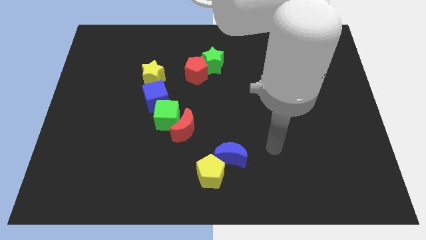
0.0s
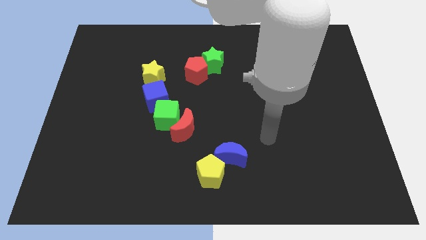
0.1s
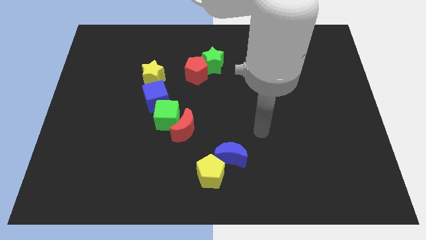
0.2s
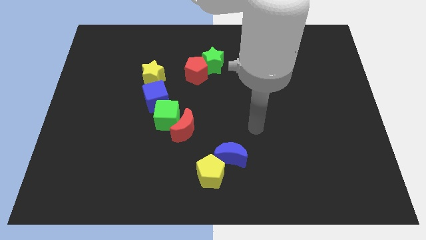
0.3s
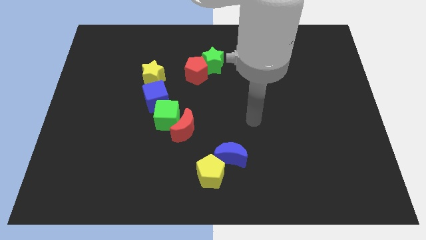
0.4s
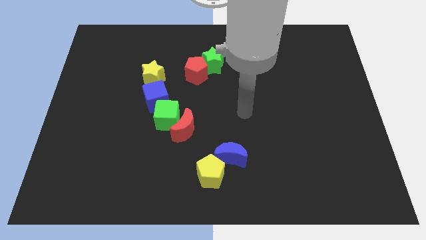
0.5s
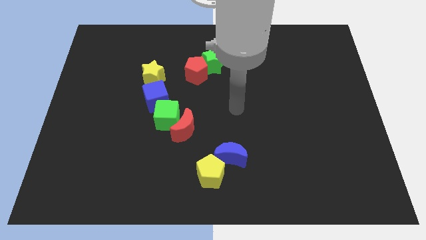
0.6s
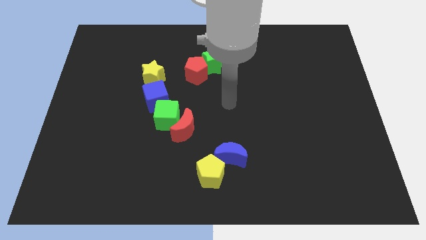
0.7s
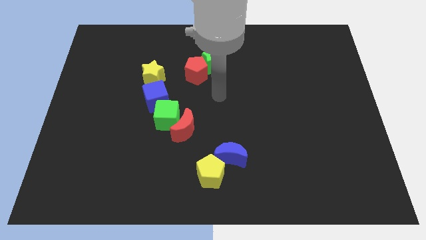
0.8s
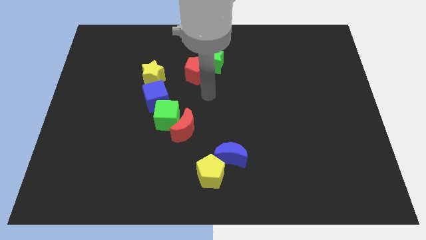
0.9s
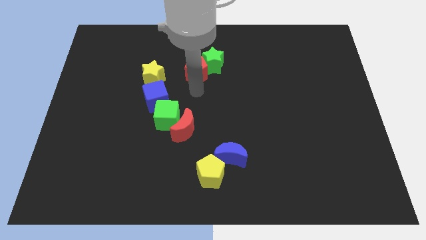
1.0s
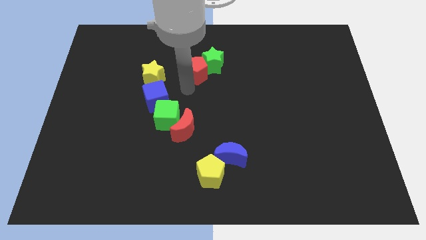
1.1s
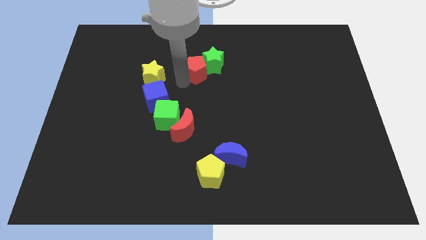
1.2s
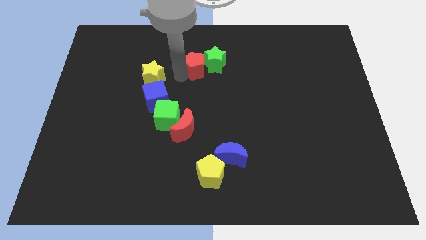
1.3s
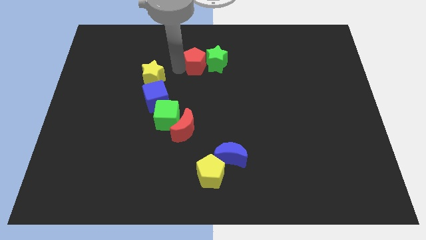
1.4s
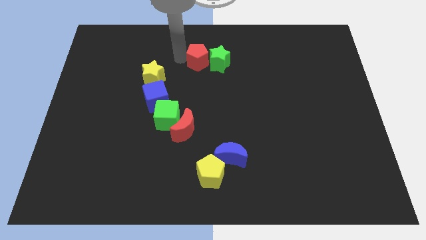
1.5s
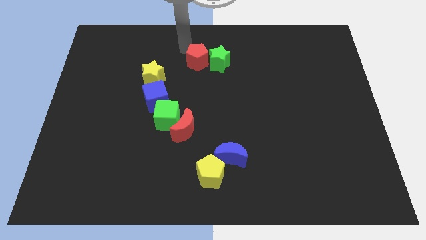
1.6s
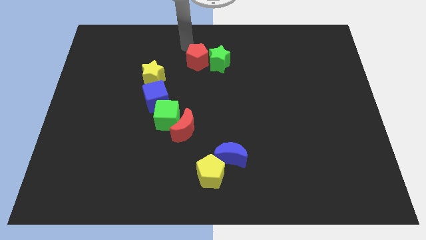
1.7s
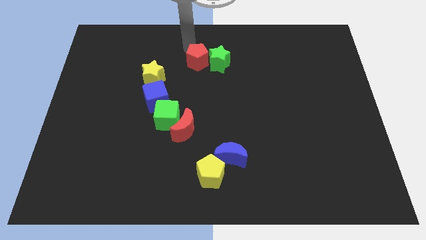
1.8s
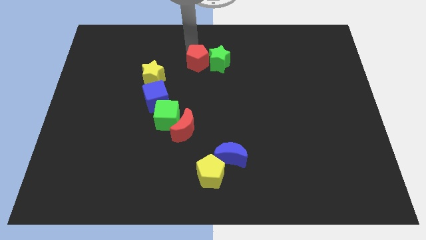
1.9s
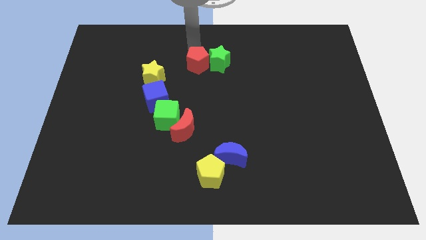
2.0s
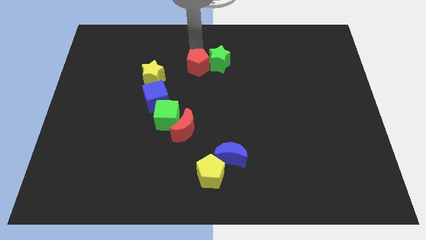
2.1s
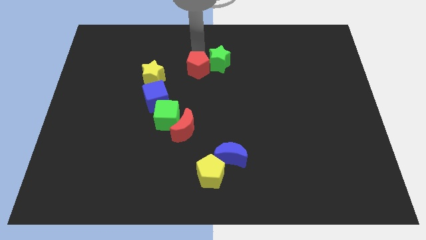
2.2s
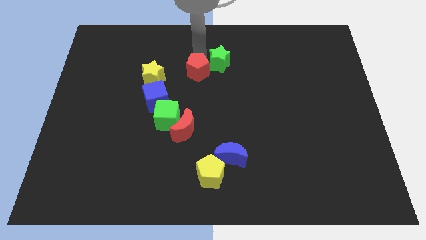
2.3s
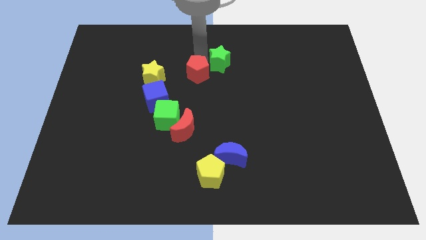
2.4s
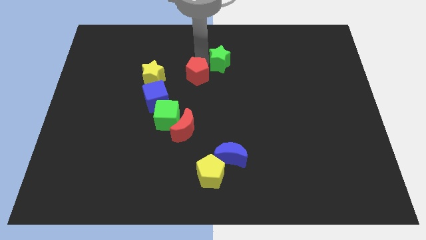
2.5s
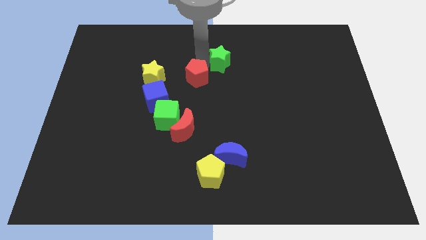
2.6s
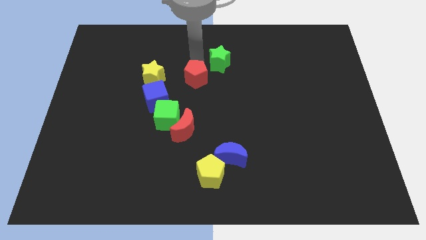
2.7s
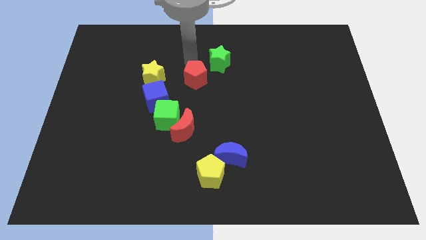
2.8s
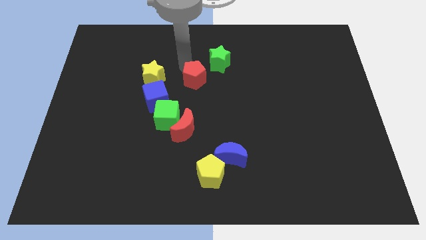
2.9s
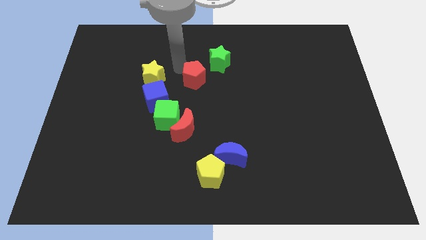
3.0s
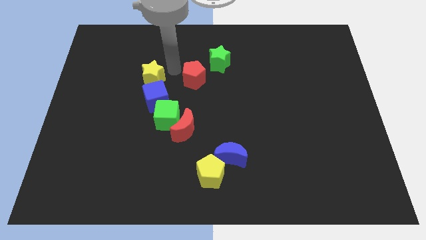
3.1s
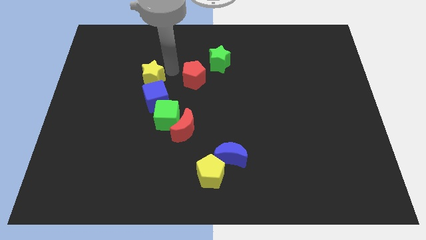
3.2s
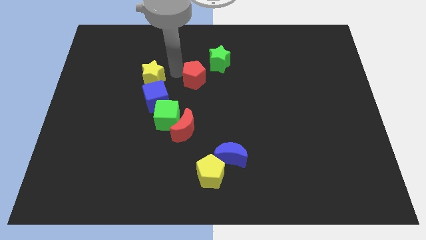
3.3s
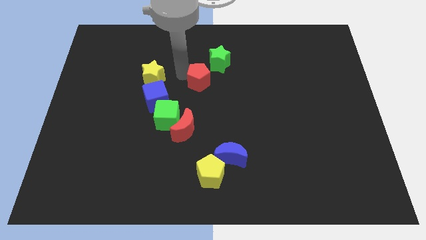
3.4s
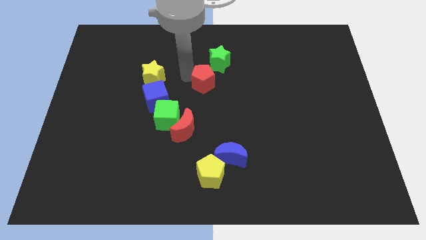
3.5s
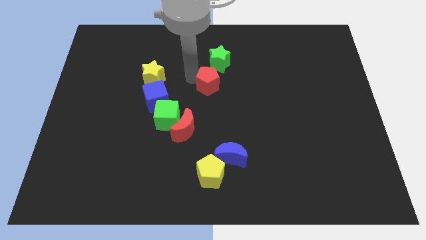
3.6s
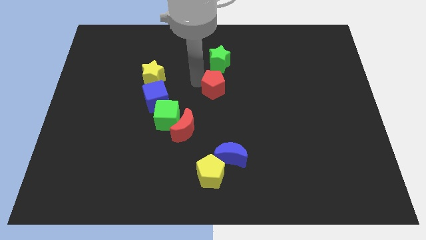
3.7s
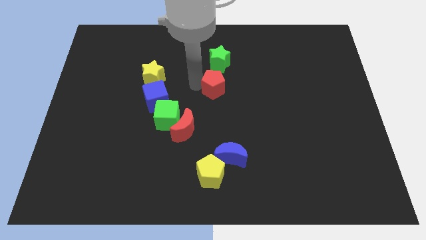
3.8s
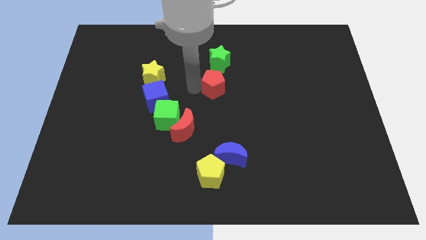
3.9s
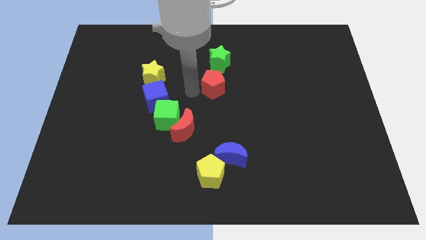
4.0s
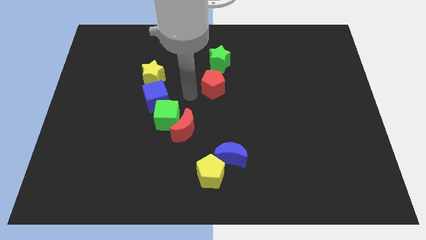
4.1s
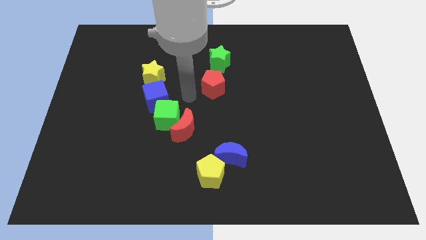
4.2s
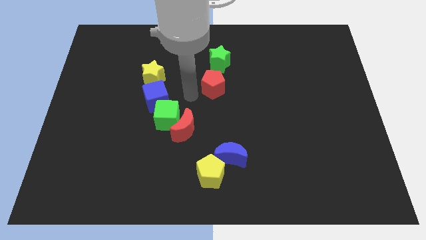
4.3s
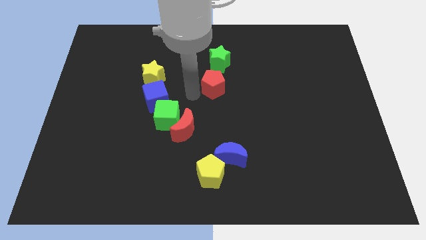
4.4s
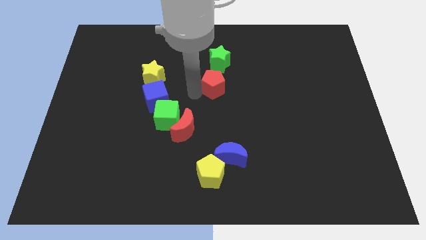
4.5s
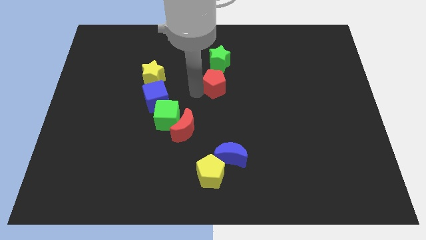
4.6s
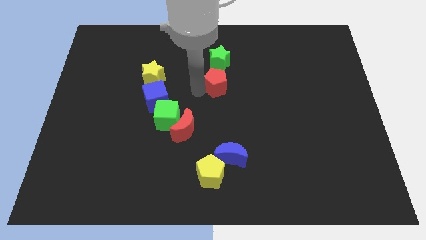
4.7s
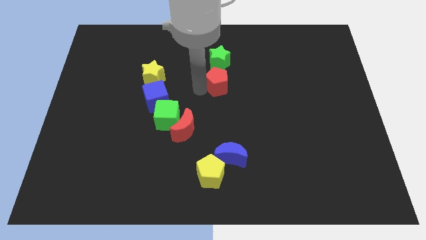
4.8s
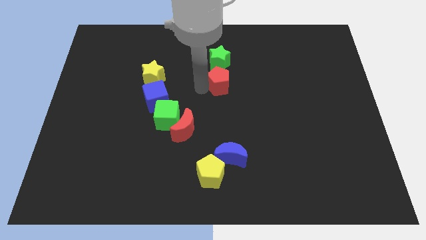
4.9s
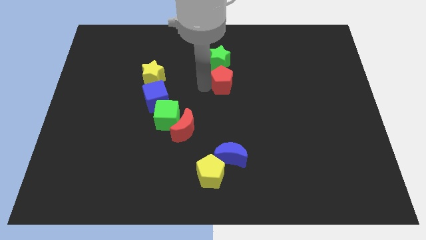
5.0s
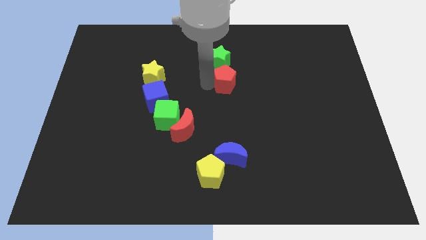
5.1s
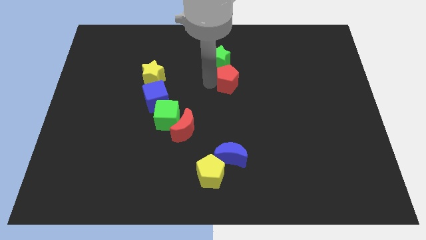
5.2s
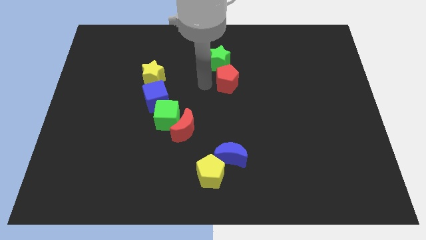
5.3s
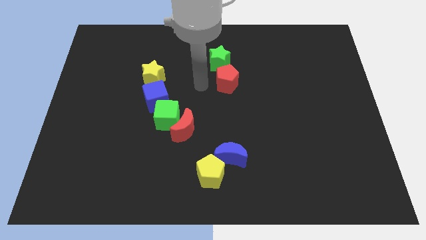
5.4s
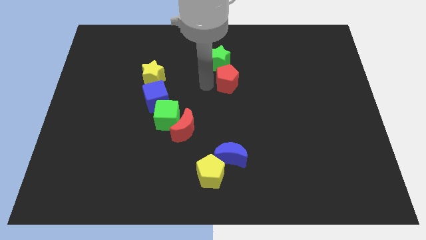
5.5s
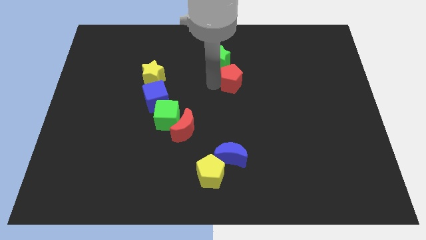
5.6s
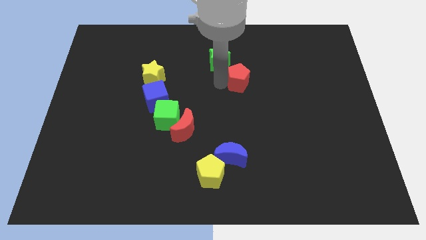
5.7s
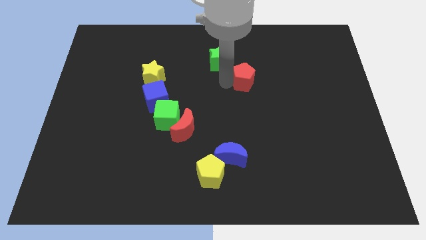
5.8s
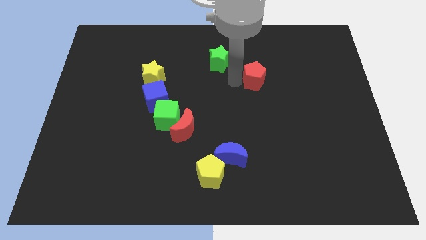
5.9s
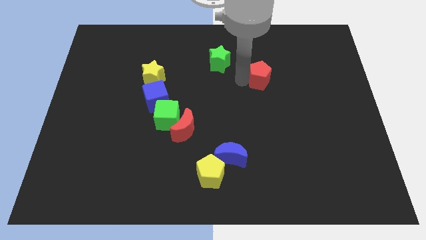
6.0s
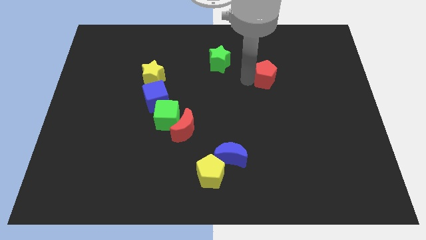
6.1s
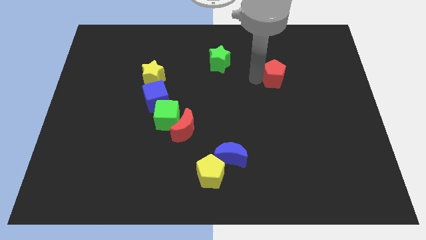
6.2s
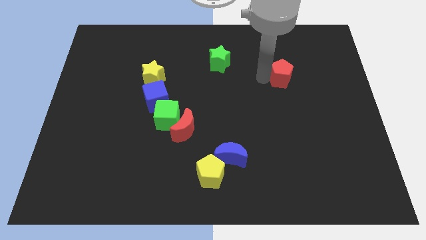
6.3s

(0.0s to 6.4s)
slide the red pentagon right

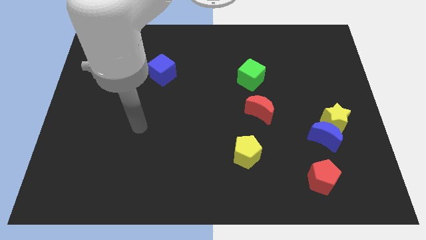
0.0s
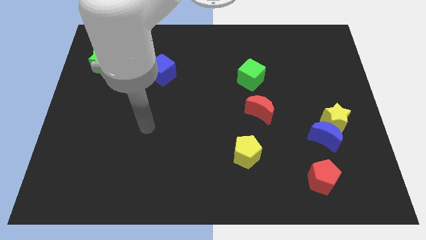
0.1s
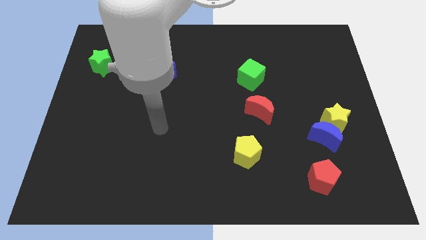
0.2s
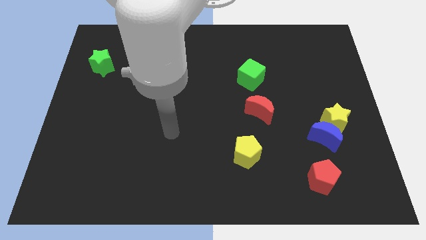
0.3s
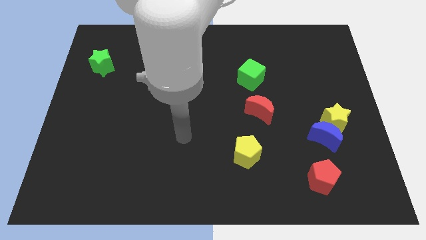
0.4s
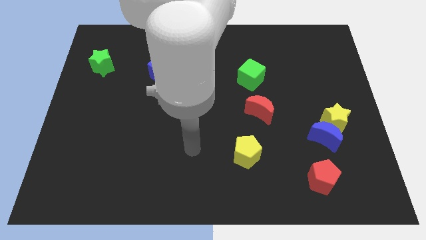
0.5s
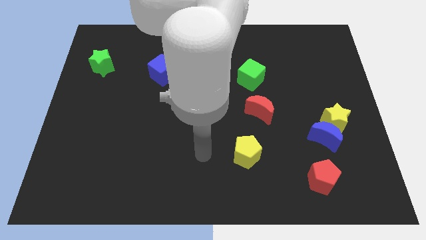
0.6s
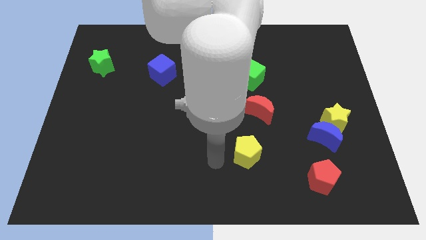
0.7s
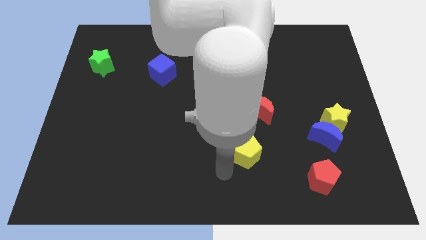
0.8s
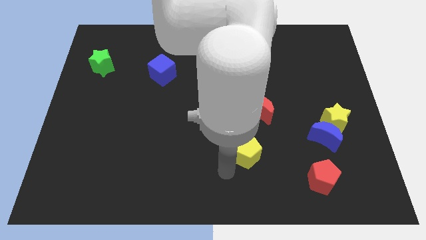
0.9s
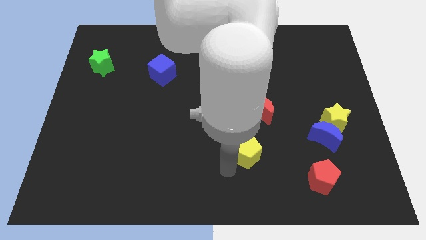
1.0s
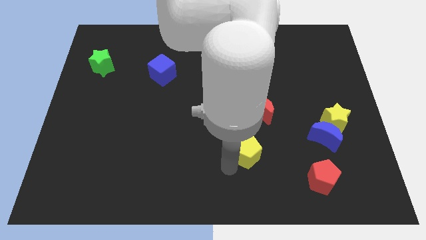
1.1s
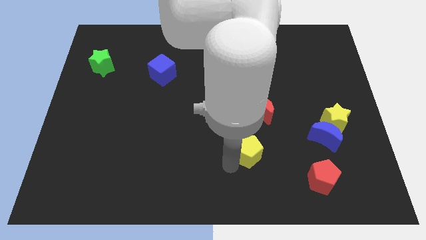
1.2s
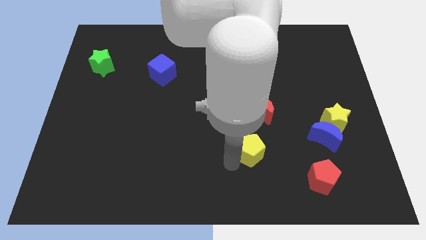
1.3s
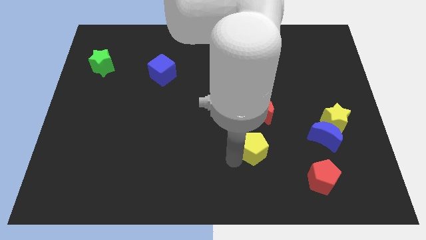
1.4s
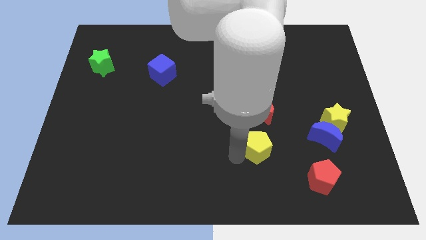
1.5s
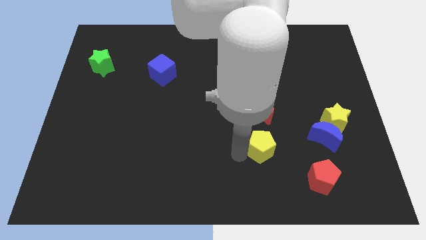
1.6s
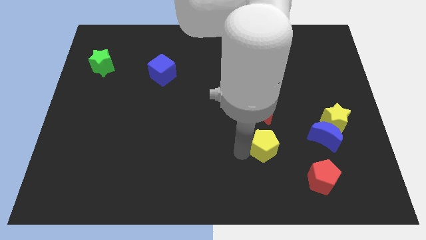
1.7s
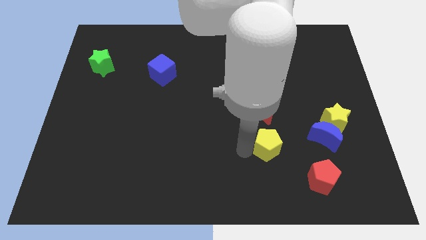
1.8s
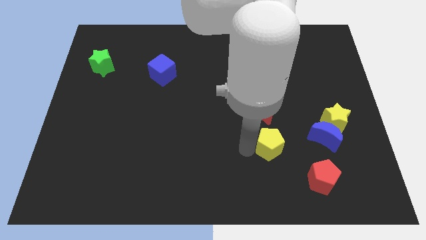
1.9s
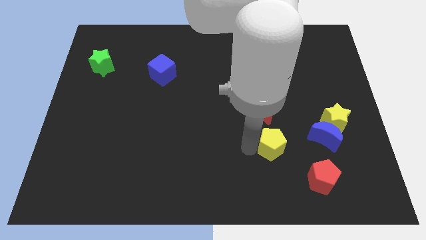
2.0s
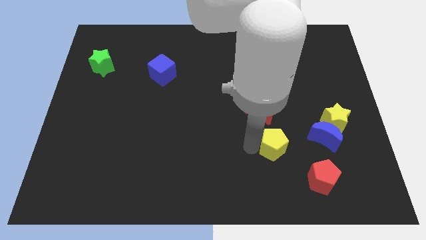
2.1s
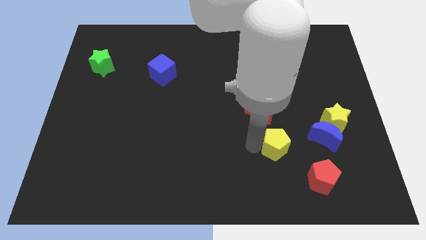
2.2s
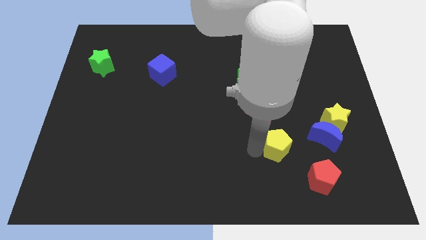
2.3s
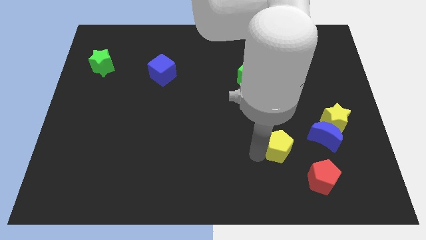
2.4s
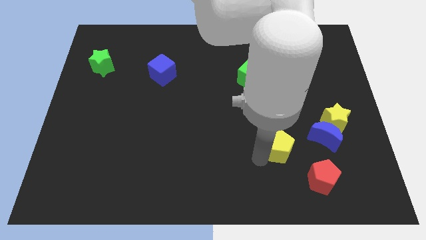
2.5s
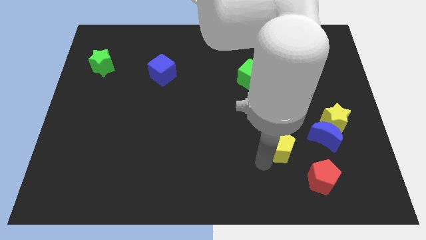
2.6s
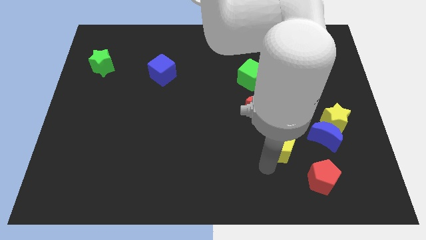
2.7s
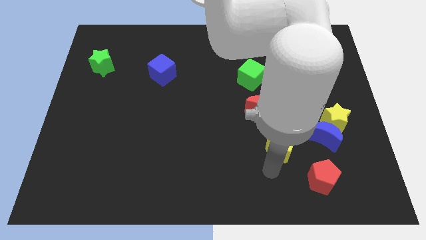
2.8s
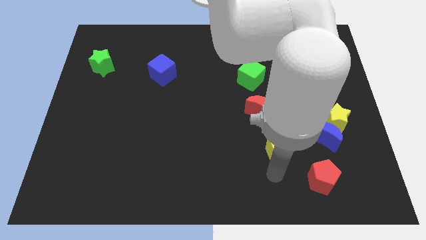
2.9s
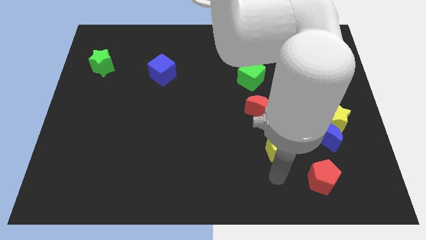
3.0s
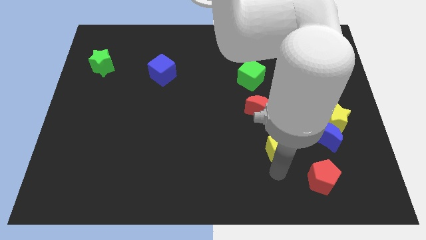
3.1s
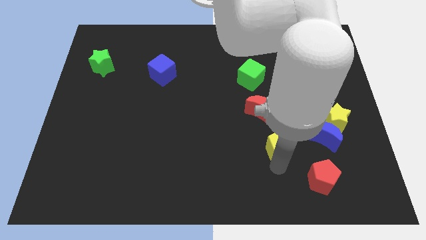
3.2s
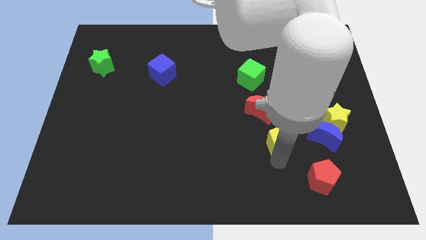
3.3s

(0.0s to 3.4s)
move the yellow pentagon diagonally up and right a bit
